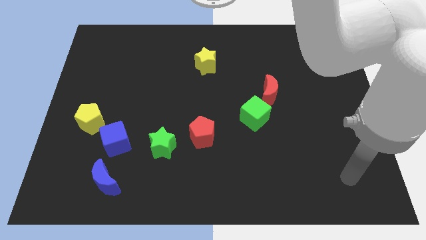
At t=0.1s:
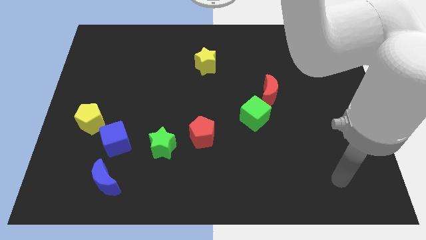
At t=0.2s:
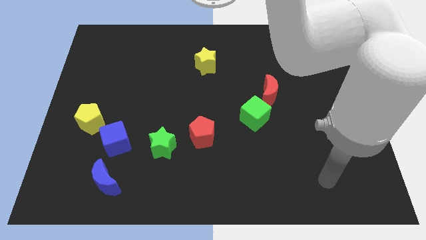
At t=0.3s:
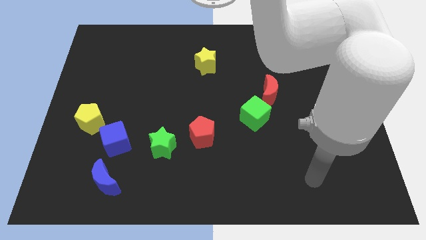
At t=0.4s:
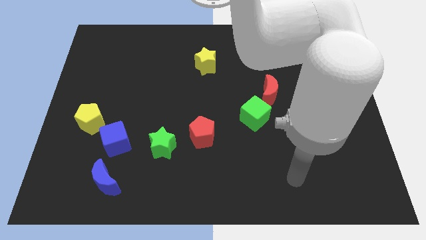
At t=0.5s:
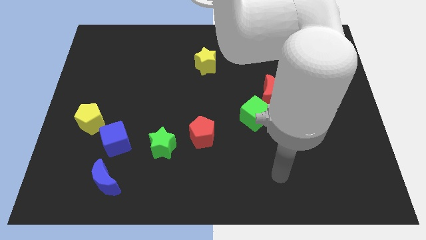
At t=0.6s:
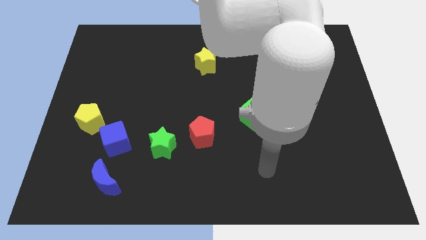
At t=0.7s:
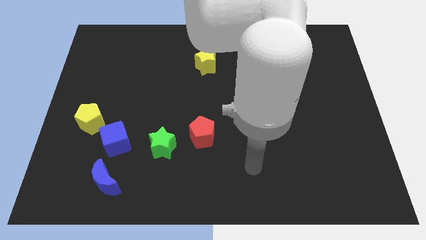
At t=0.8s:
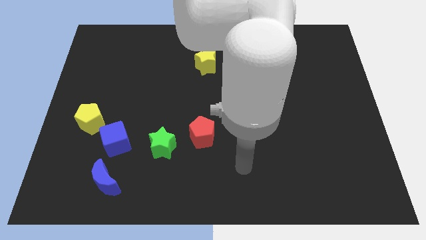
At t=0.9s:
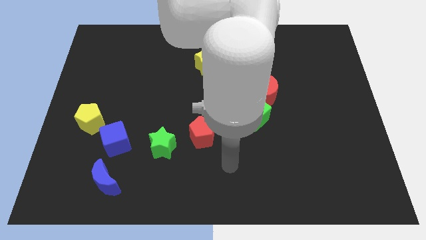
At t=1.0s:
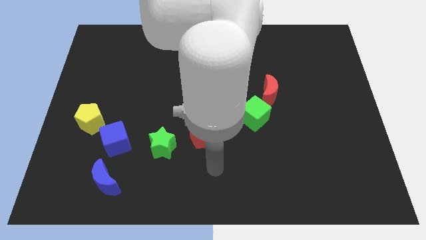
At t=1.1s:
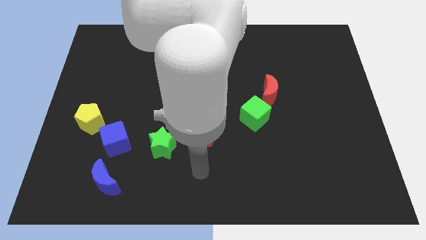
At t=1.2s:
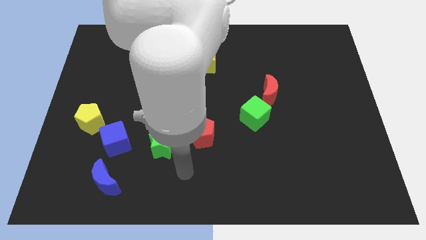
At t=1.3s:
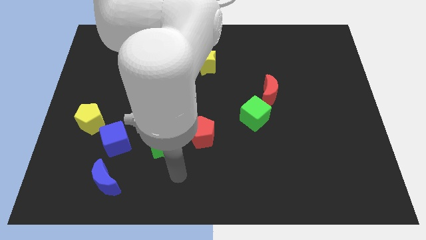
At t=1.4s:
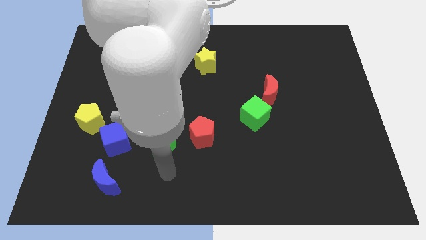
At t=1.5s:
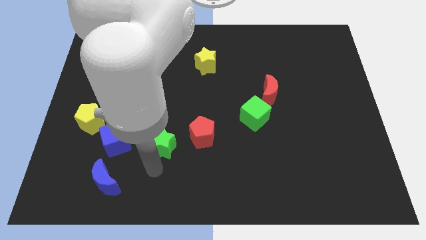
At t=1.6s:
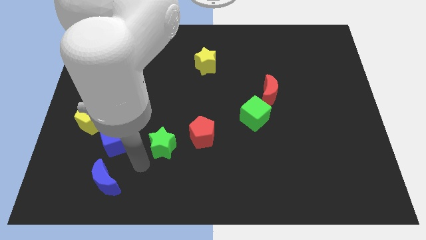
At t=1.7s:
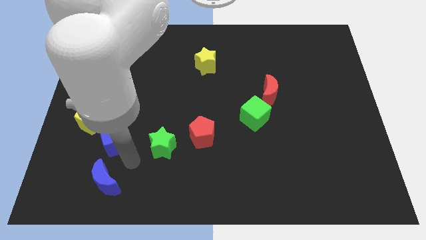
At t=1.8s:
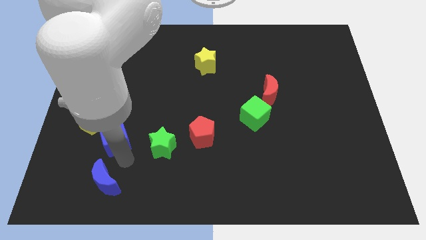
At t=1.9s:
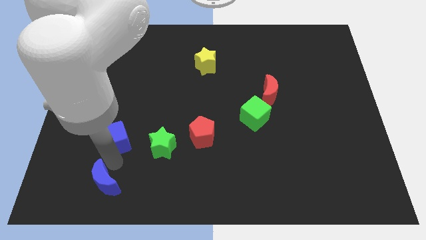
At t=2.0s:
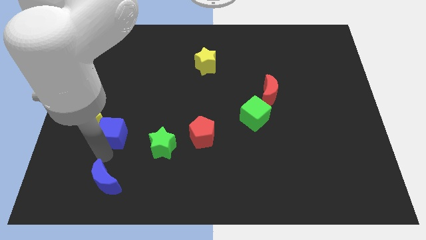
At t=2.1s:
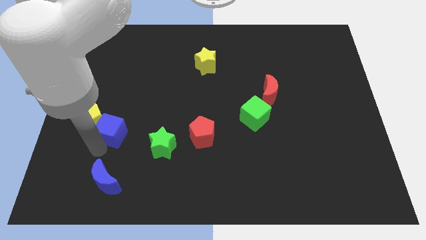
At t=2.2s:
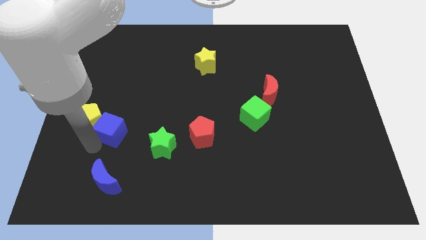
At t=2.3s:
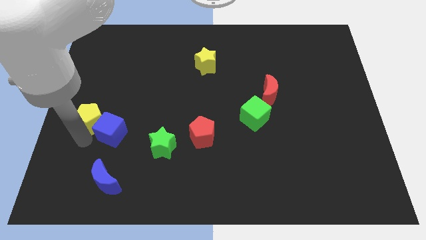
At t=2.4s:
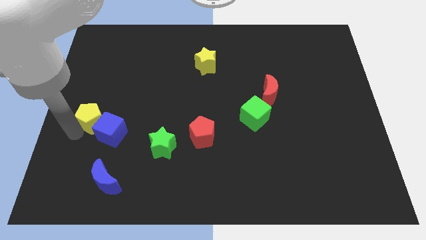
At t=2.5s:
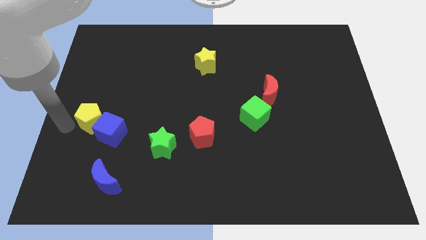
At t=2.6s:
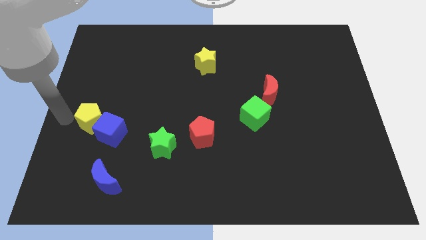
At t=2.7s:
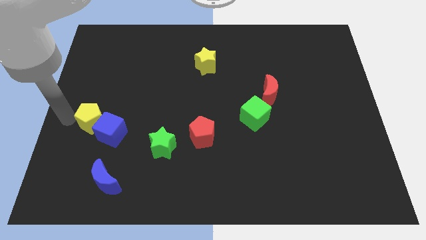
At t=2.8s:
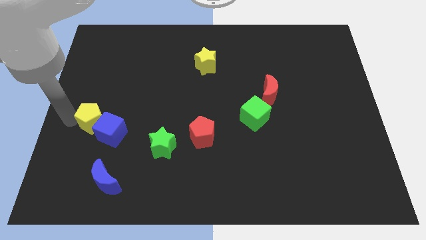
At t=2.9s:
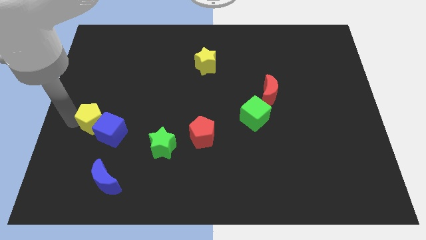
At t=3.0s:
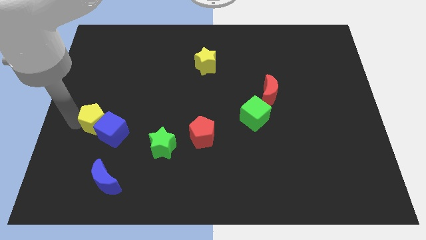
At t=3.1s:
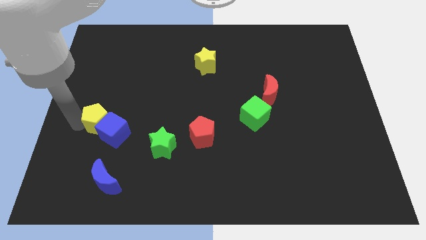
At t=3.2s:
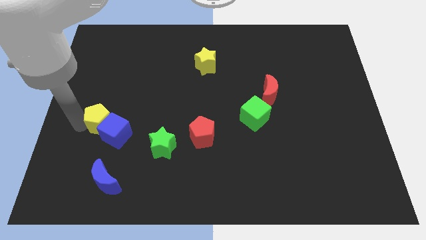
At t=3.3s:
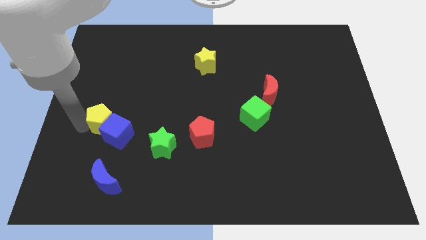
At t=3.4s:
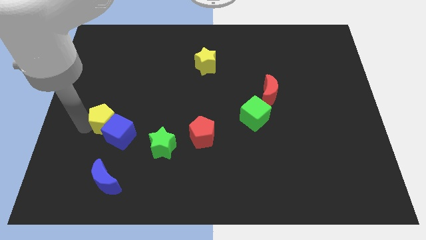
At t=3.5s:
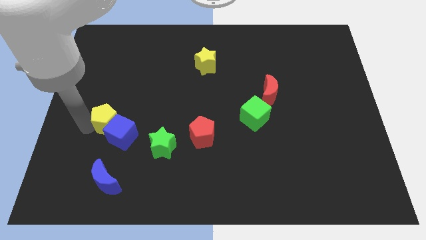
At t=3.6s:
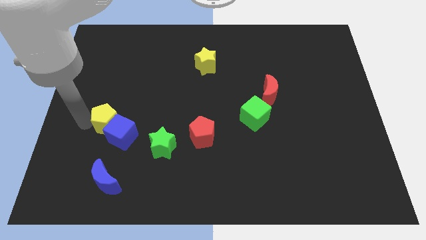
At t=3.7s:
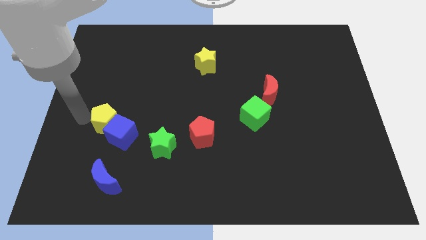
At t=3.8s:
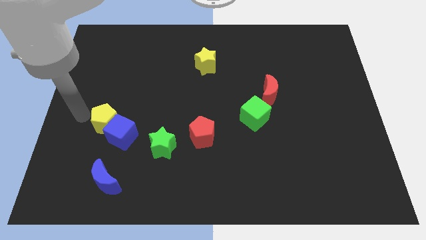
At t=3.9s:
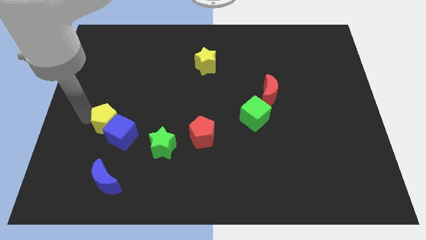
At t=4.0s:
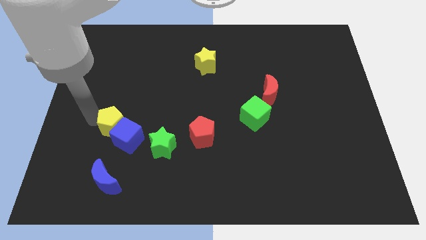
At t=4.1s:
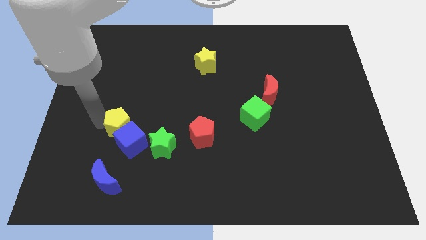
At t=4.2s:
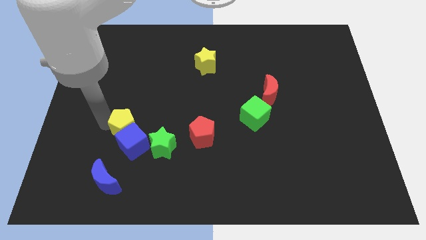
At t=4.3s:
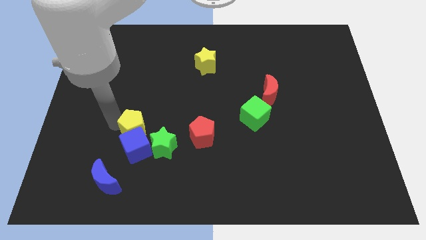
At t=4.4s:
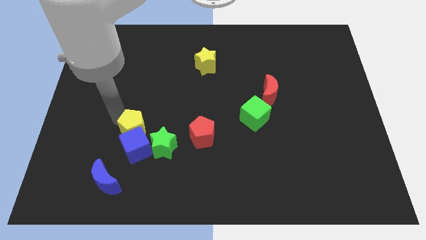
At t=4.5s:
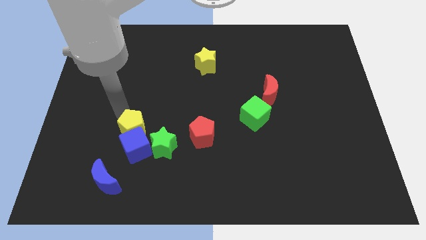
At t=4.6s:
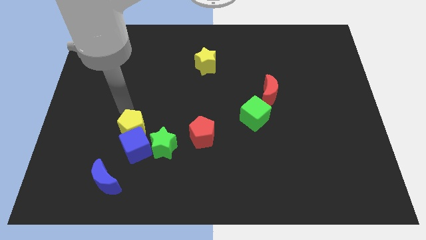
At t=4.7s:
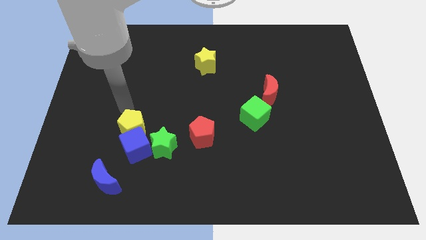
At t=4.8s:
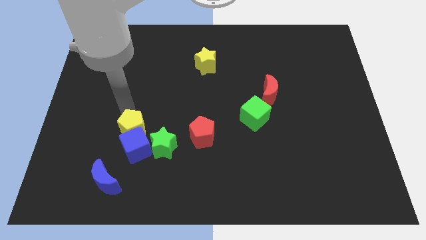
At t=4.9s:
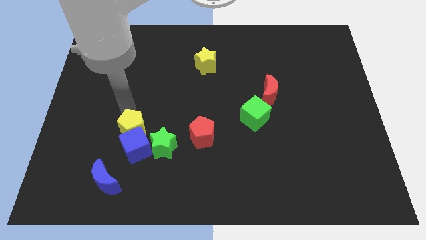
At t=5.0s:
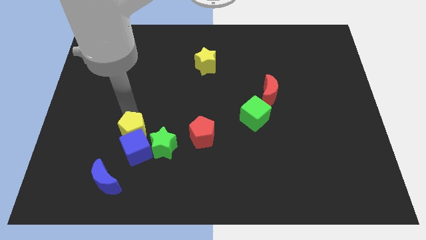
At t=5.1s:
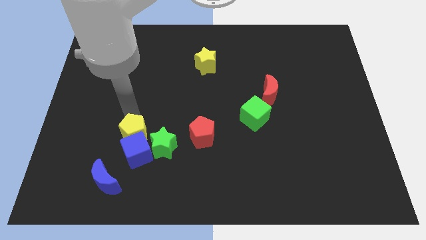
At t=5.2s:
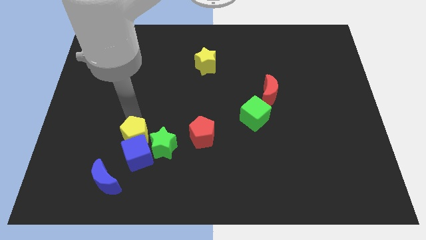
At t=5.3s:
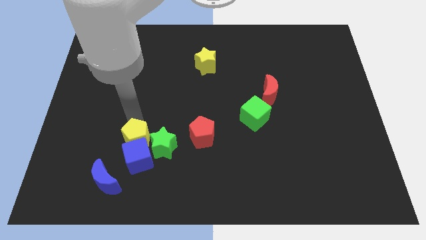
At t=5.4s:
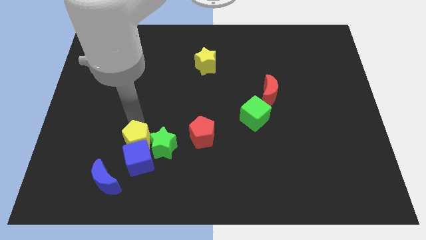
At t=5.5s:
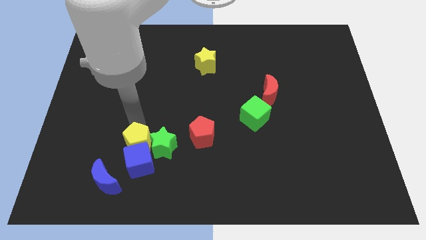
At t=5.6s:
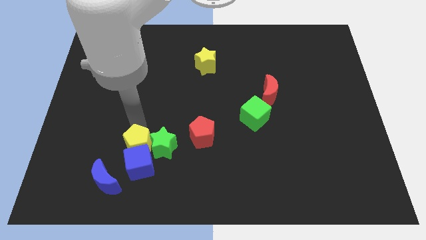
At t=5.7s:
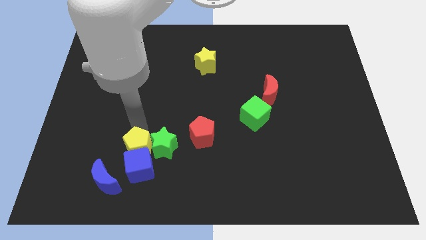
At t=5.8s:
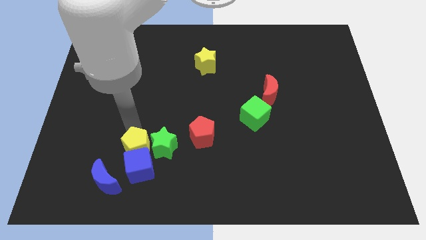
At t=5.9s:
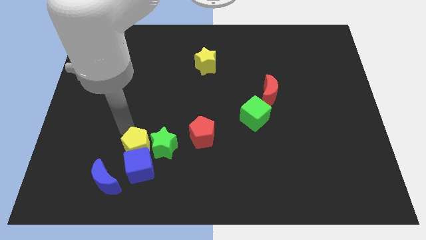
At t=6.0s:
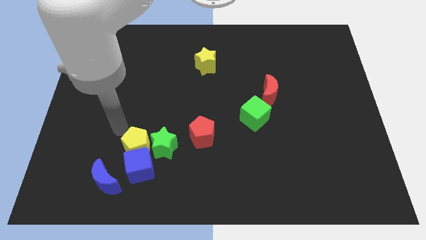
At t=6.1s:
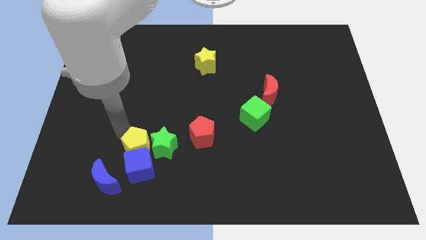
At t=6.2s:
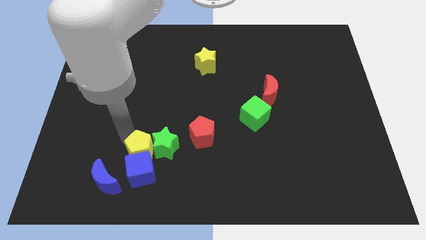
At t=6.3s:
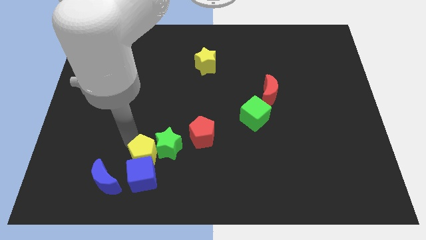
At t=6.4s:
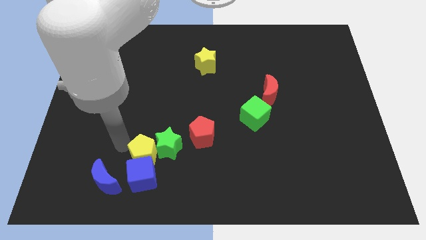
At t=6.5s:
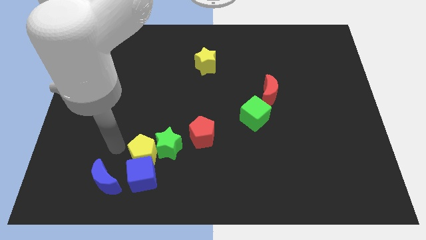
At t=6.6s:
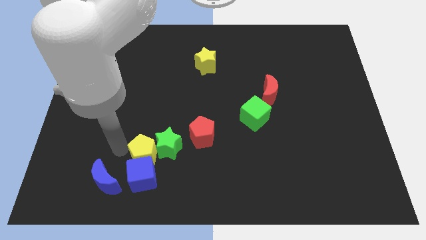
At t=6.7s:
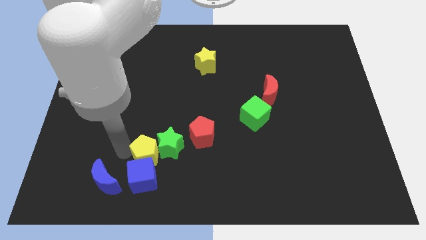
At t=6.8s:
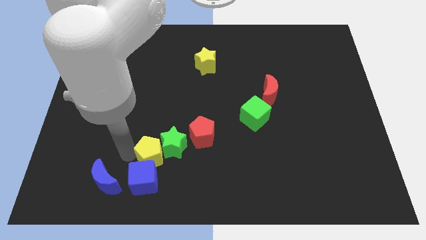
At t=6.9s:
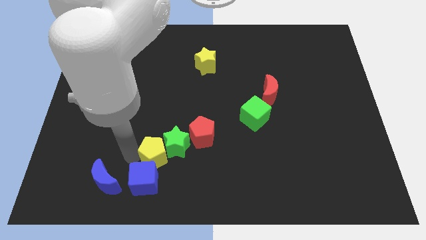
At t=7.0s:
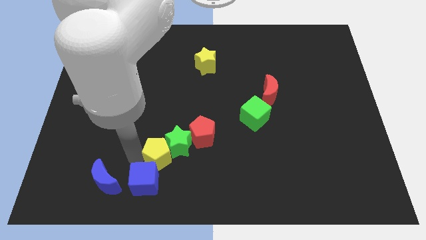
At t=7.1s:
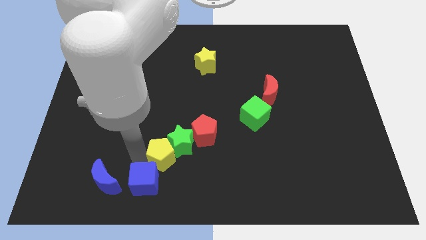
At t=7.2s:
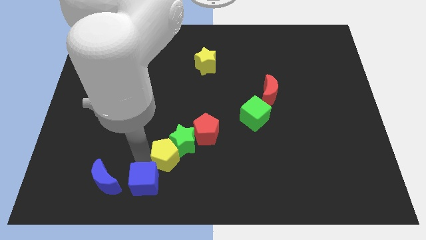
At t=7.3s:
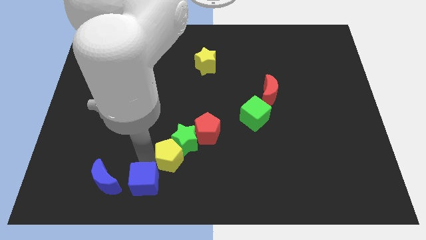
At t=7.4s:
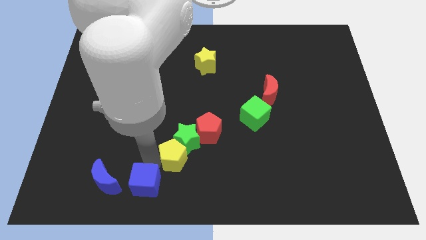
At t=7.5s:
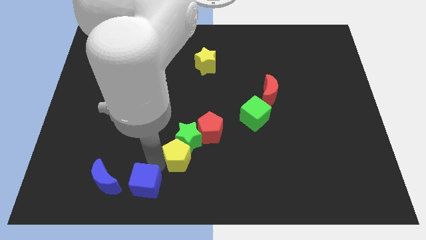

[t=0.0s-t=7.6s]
put the yellow pentagon diagonally down and to the right of the green star

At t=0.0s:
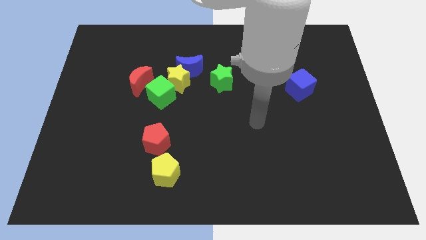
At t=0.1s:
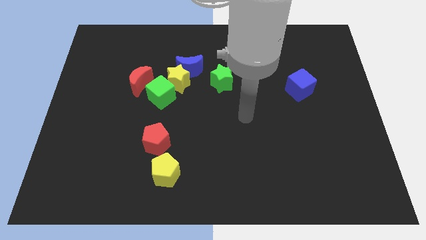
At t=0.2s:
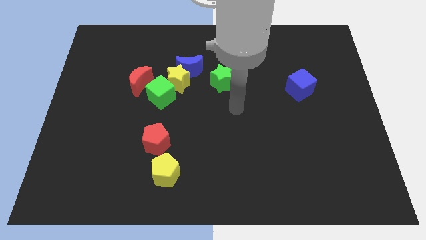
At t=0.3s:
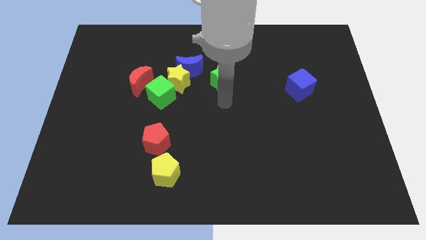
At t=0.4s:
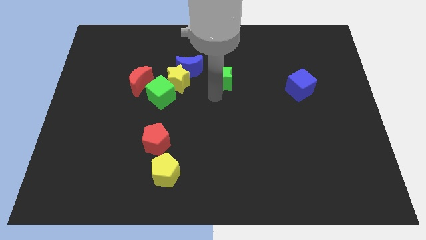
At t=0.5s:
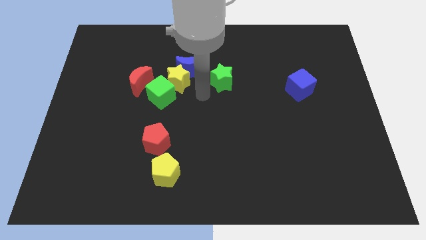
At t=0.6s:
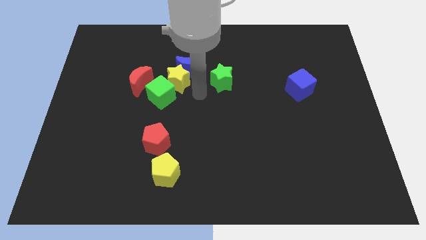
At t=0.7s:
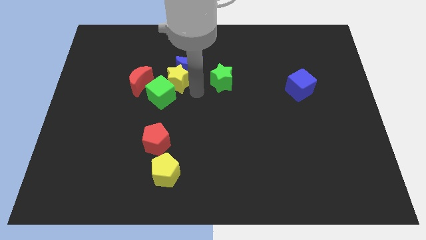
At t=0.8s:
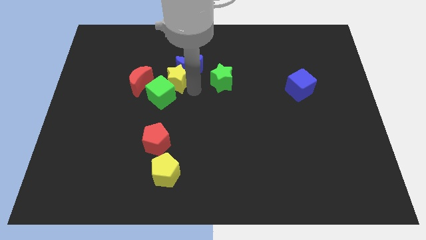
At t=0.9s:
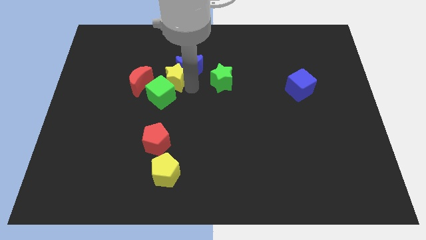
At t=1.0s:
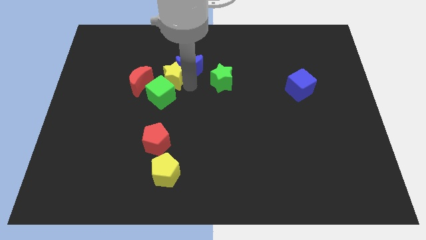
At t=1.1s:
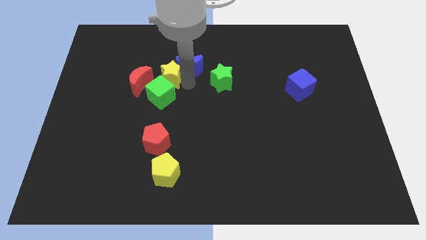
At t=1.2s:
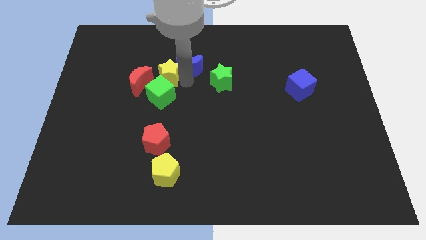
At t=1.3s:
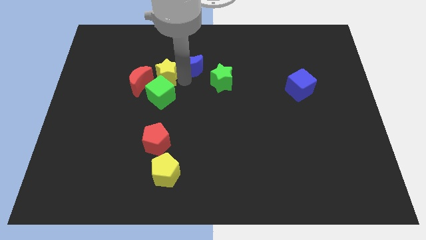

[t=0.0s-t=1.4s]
move the yellow star to the top left side of the green cube
